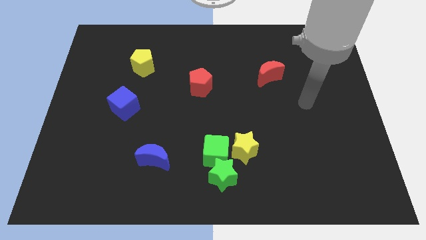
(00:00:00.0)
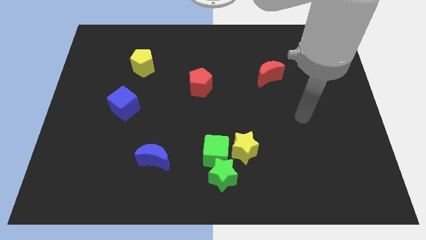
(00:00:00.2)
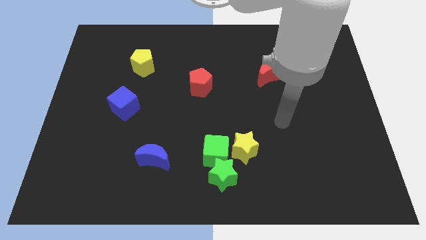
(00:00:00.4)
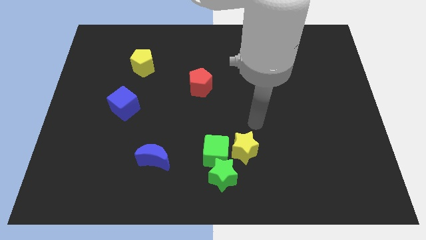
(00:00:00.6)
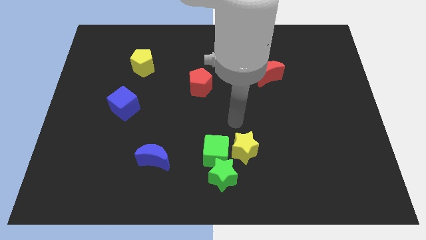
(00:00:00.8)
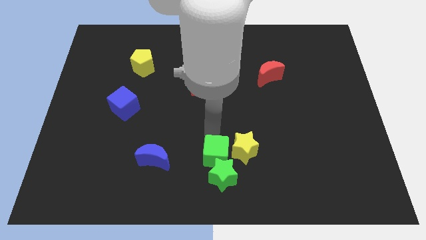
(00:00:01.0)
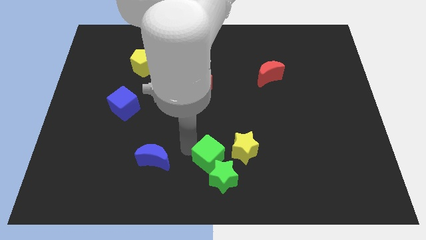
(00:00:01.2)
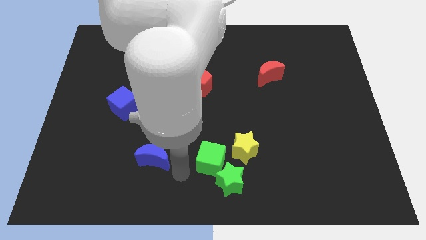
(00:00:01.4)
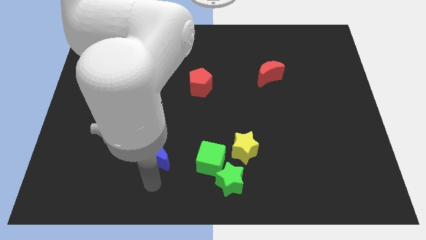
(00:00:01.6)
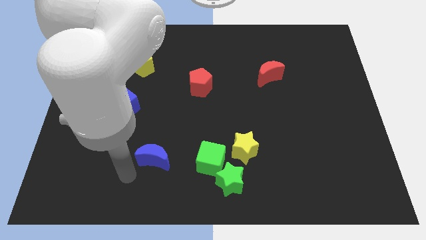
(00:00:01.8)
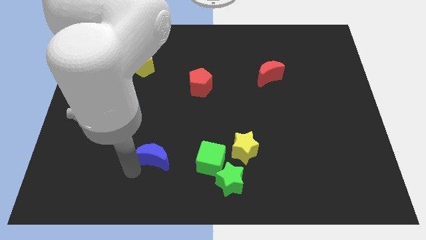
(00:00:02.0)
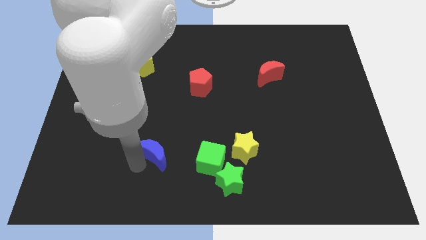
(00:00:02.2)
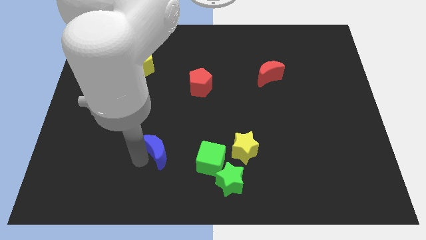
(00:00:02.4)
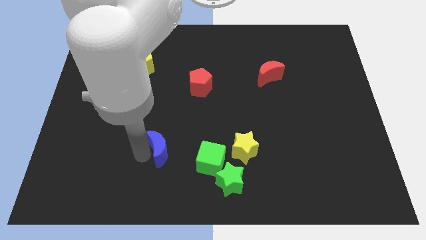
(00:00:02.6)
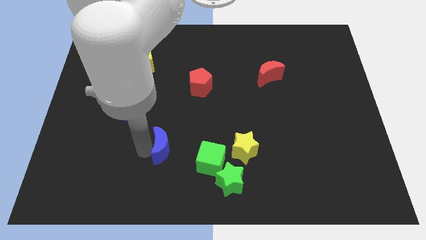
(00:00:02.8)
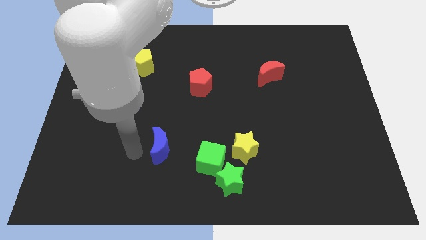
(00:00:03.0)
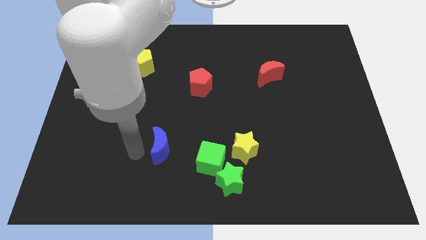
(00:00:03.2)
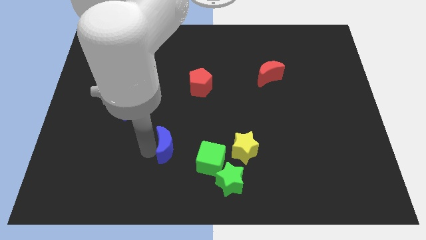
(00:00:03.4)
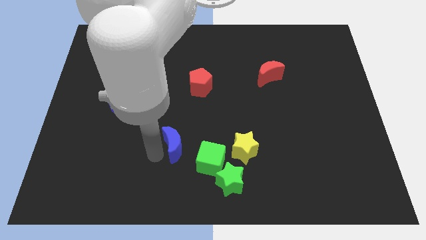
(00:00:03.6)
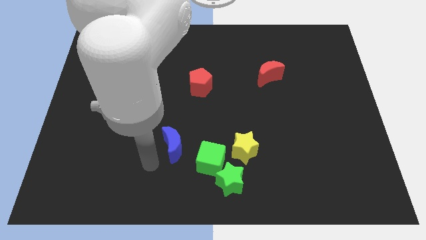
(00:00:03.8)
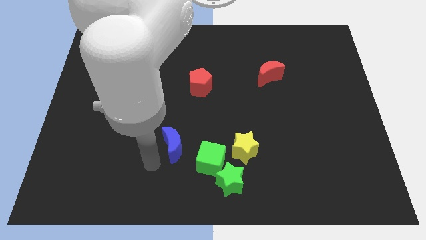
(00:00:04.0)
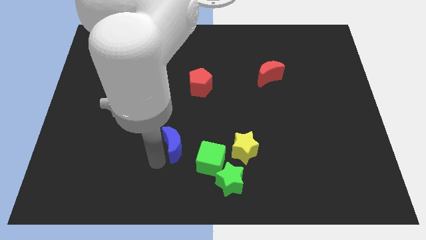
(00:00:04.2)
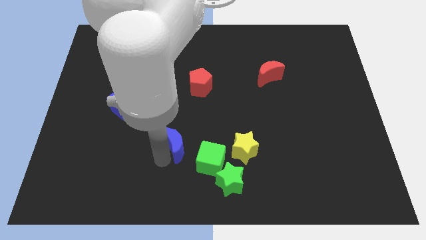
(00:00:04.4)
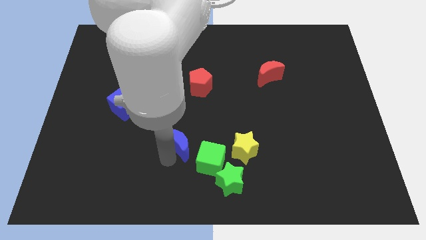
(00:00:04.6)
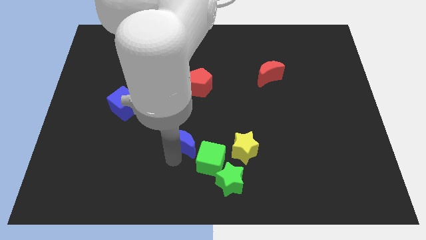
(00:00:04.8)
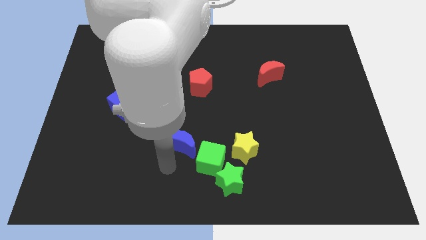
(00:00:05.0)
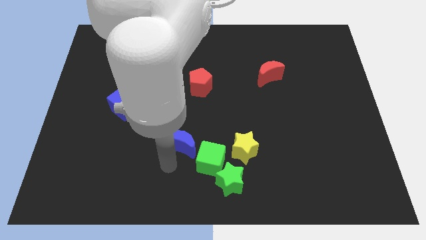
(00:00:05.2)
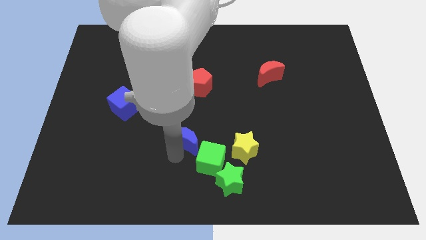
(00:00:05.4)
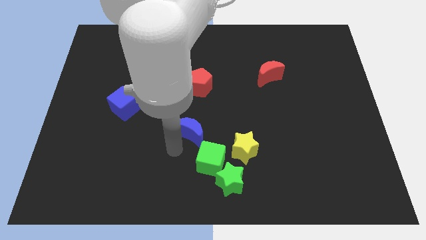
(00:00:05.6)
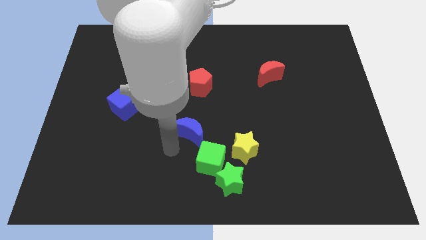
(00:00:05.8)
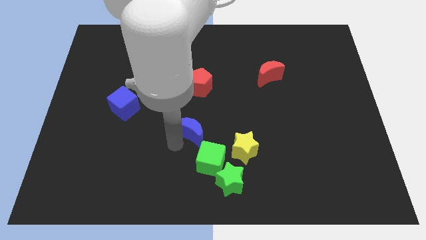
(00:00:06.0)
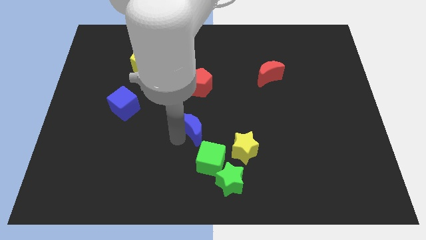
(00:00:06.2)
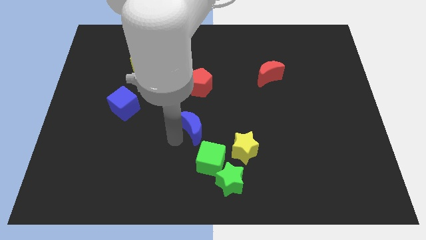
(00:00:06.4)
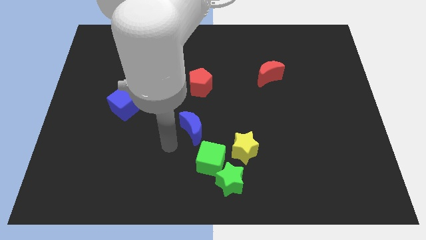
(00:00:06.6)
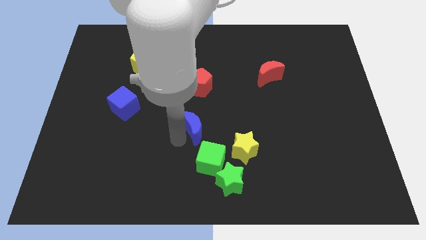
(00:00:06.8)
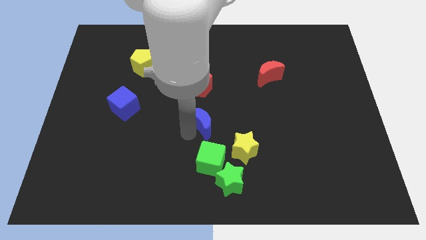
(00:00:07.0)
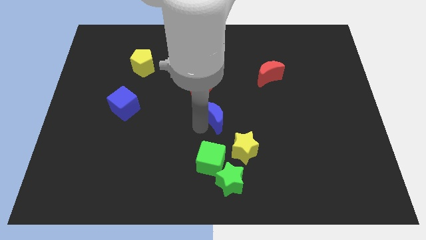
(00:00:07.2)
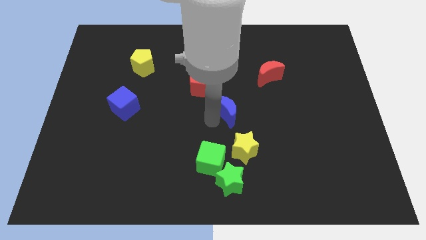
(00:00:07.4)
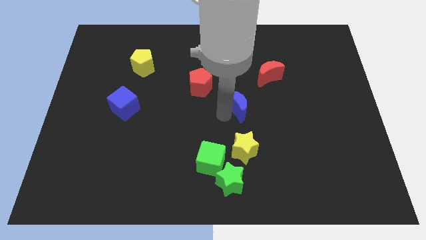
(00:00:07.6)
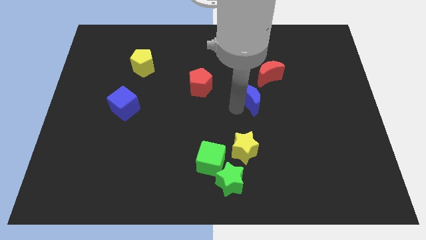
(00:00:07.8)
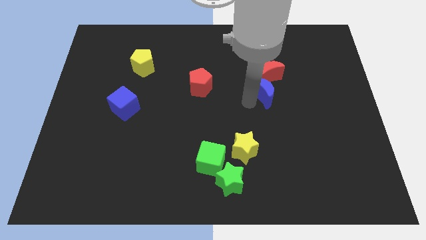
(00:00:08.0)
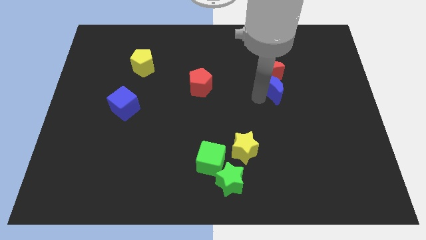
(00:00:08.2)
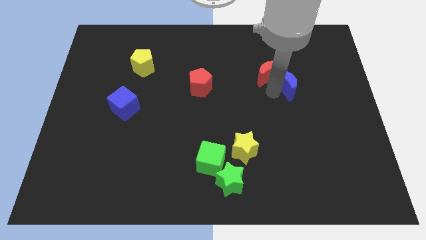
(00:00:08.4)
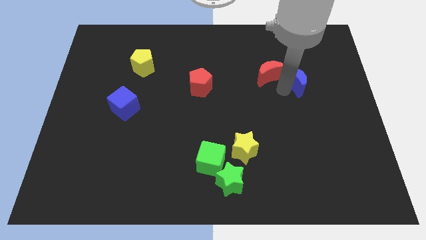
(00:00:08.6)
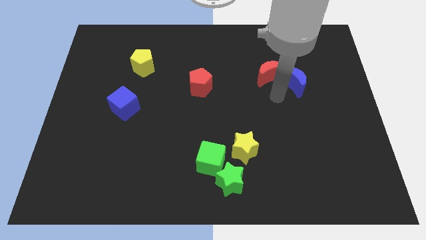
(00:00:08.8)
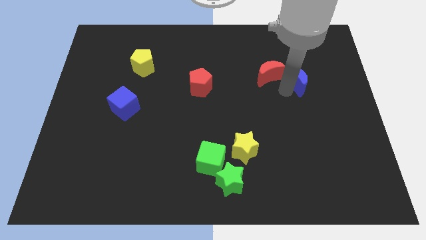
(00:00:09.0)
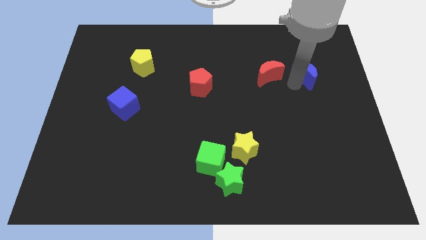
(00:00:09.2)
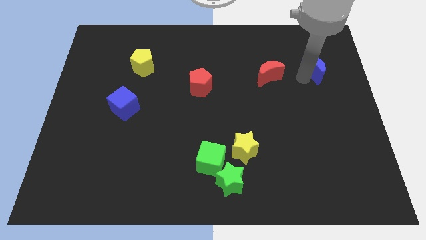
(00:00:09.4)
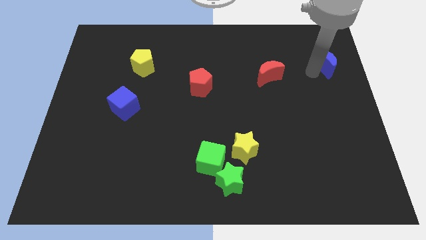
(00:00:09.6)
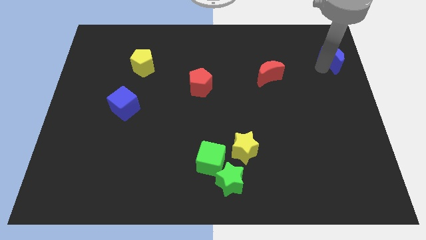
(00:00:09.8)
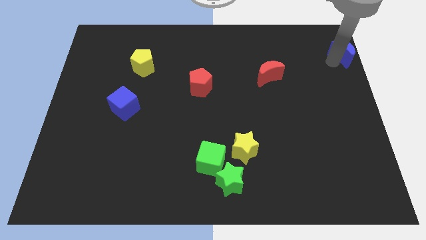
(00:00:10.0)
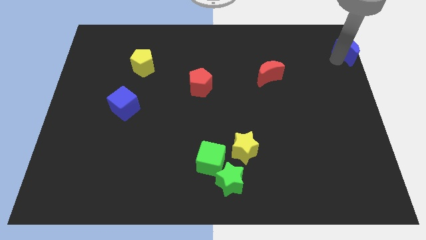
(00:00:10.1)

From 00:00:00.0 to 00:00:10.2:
move the blue moon to the upper right corner

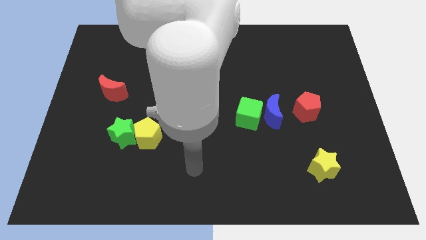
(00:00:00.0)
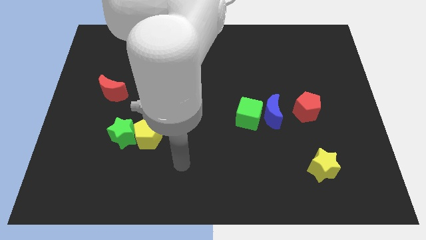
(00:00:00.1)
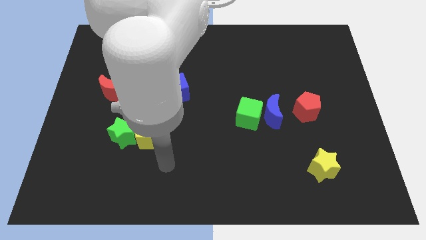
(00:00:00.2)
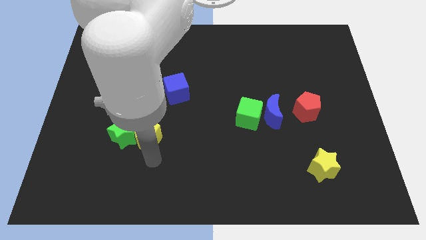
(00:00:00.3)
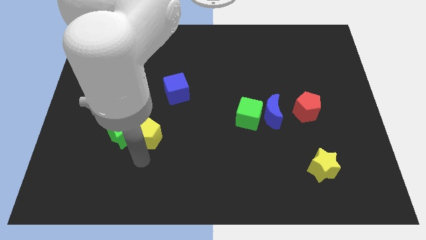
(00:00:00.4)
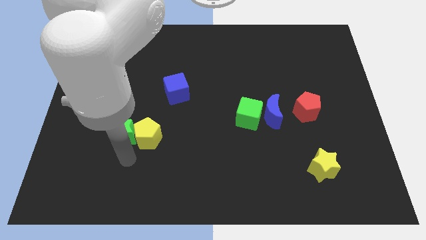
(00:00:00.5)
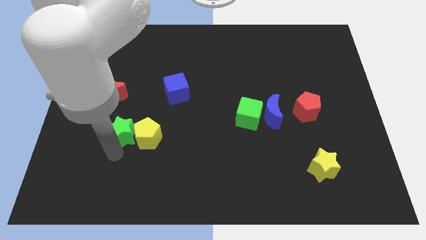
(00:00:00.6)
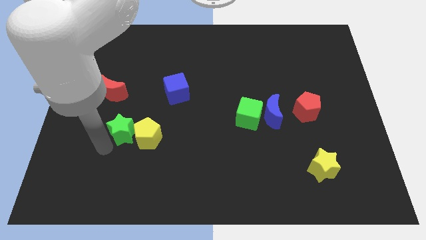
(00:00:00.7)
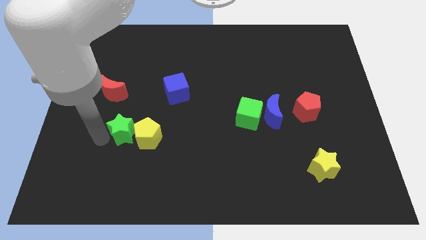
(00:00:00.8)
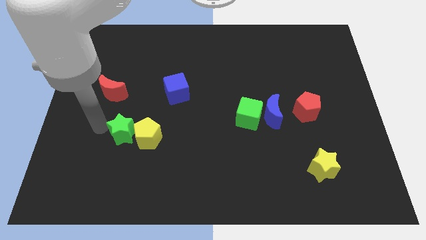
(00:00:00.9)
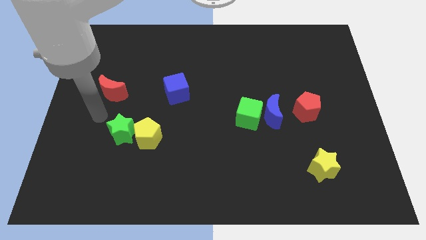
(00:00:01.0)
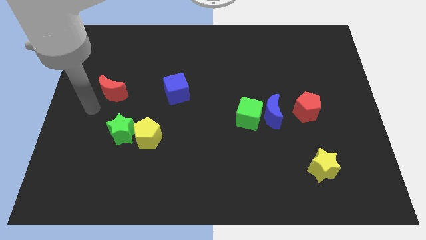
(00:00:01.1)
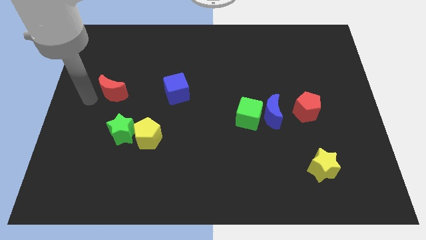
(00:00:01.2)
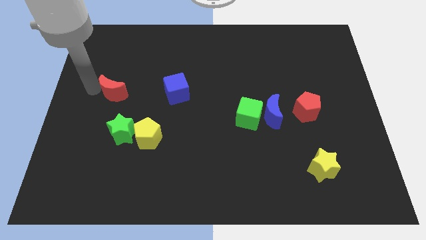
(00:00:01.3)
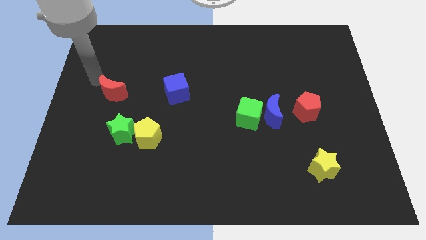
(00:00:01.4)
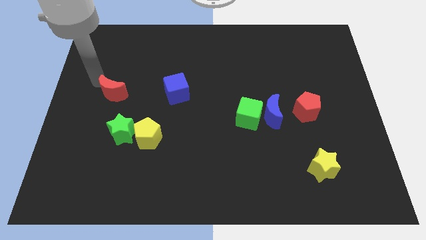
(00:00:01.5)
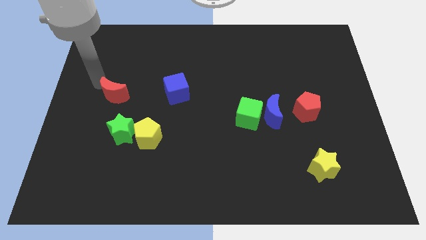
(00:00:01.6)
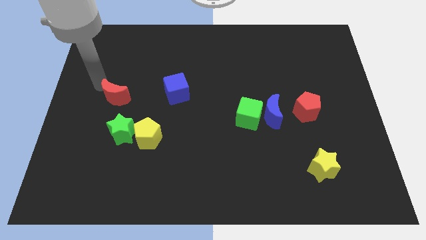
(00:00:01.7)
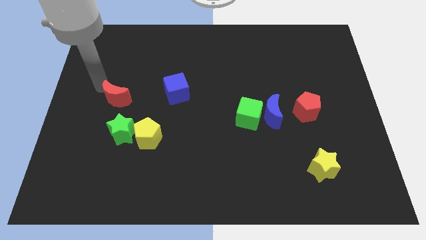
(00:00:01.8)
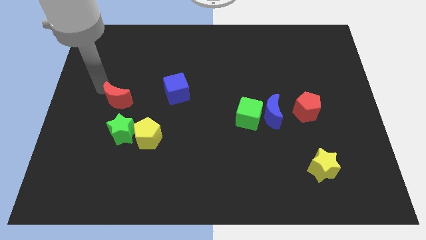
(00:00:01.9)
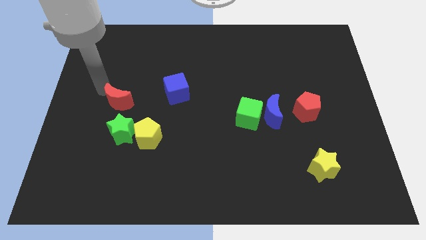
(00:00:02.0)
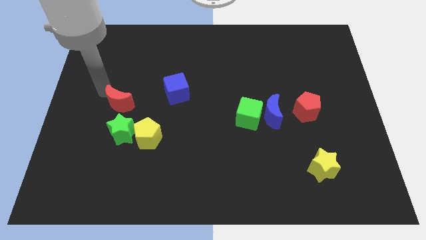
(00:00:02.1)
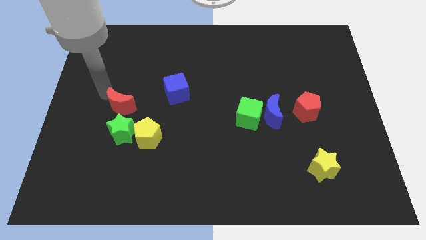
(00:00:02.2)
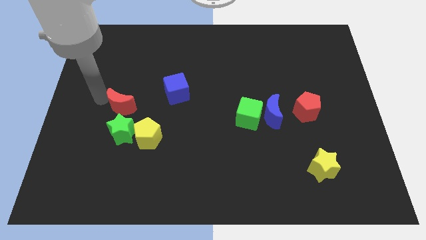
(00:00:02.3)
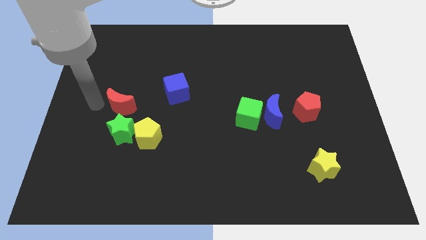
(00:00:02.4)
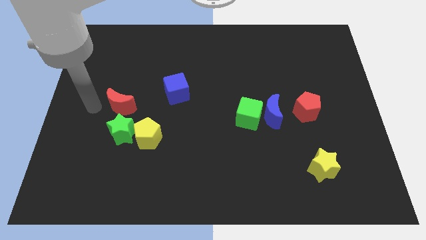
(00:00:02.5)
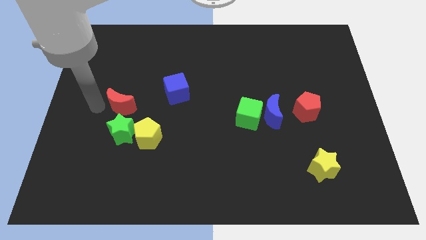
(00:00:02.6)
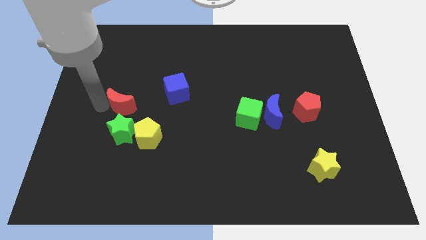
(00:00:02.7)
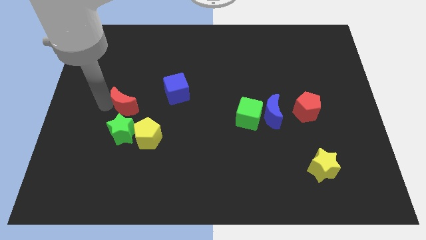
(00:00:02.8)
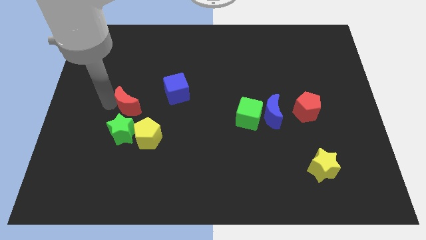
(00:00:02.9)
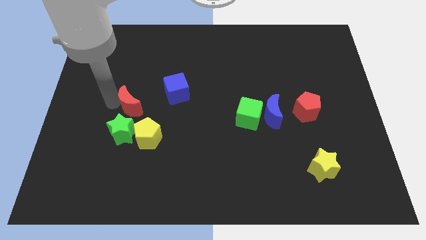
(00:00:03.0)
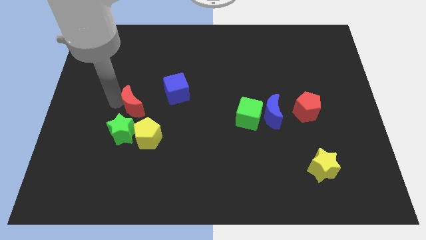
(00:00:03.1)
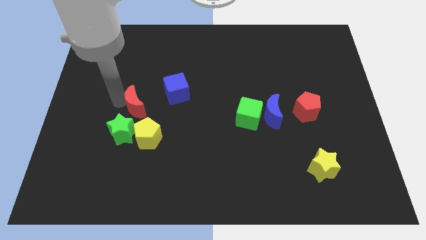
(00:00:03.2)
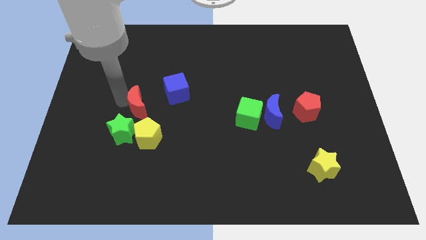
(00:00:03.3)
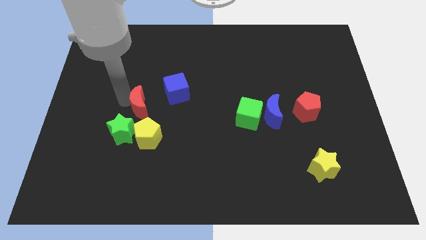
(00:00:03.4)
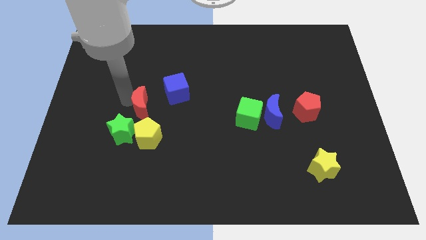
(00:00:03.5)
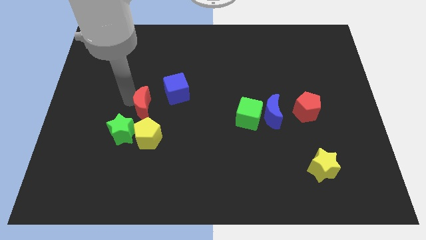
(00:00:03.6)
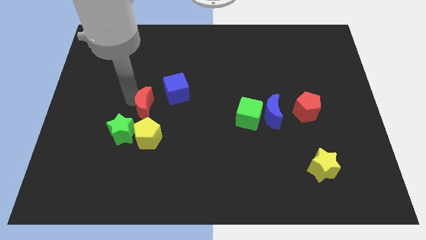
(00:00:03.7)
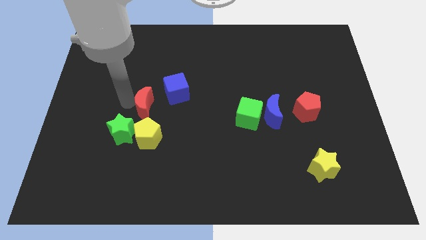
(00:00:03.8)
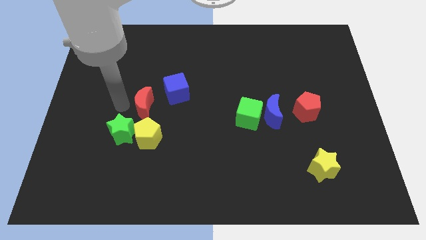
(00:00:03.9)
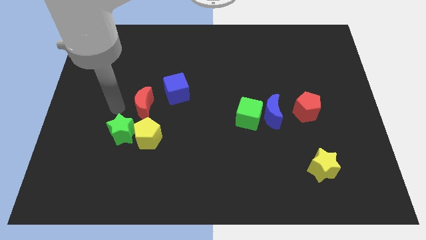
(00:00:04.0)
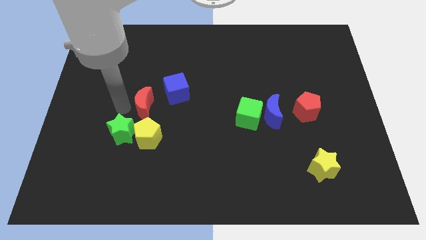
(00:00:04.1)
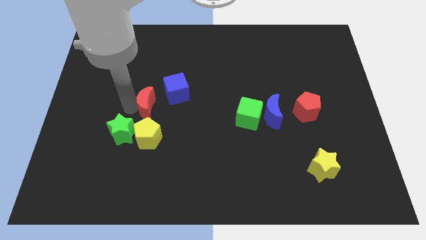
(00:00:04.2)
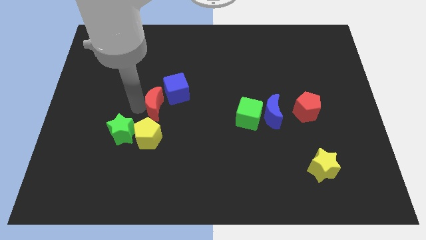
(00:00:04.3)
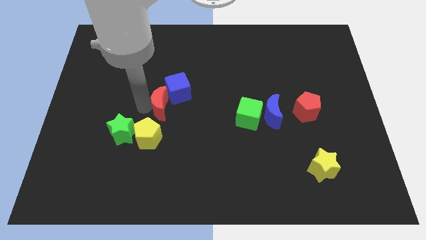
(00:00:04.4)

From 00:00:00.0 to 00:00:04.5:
move the red moon to the middle of the board
